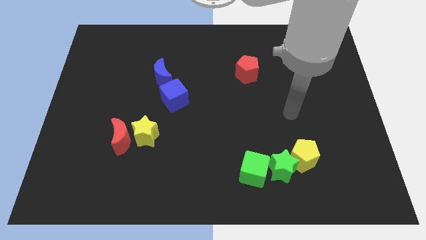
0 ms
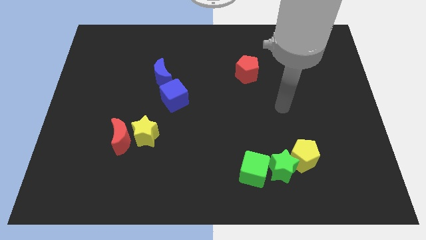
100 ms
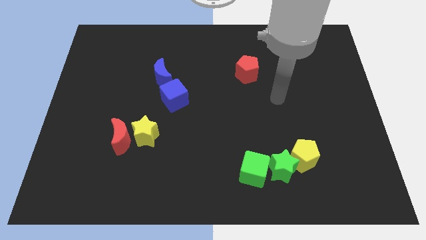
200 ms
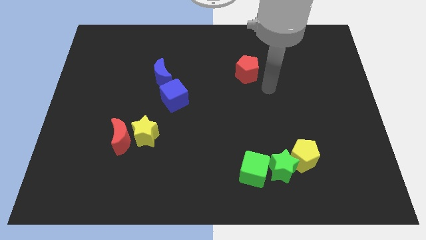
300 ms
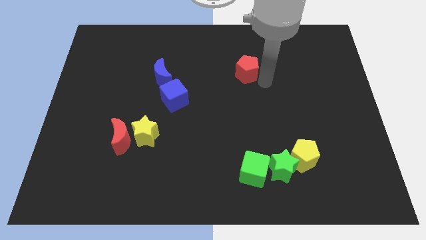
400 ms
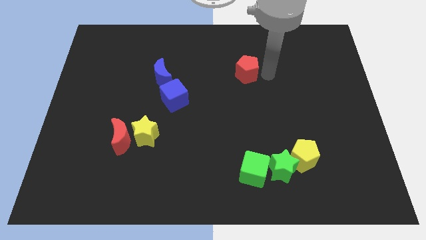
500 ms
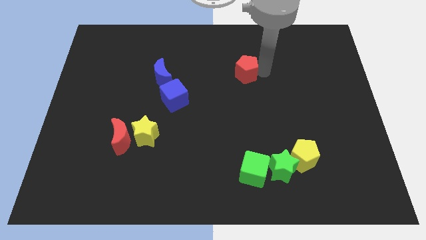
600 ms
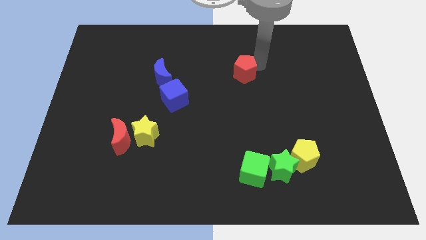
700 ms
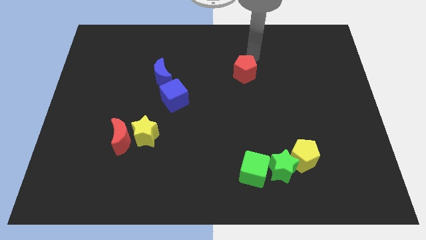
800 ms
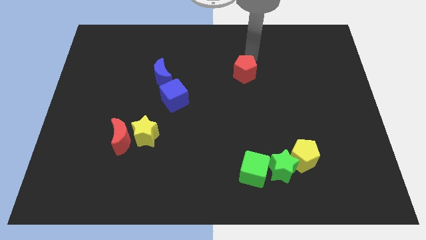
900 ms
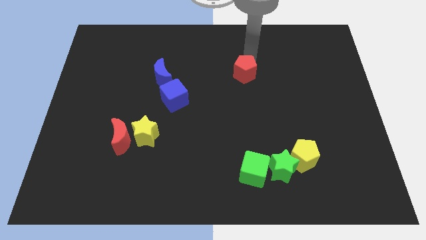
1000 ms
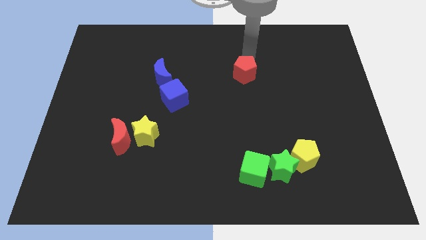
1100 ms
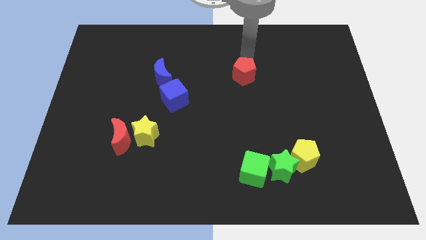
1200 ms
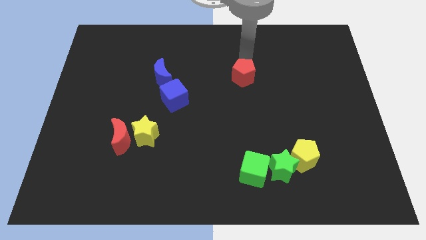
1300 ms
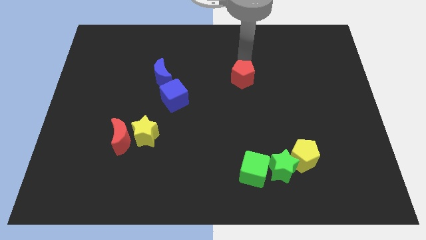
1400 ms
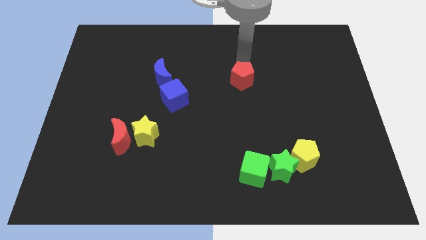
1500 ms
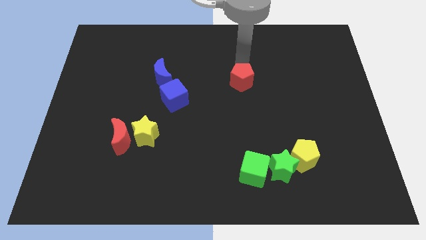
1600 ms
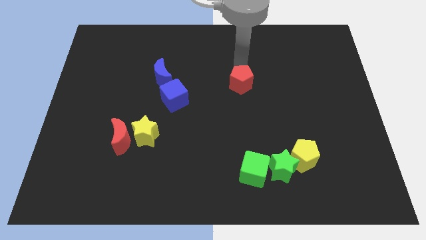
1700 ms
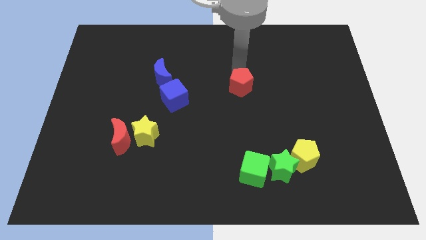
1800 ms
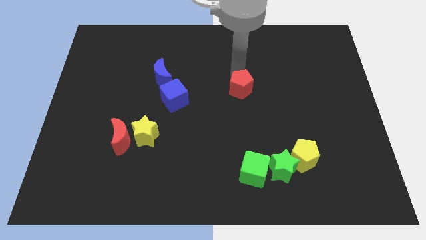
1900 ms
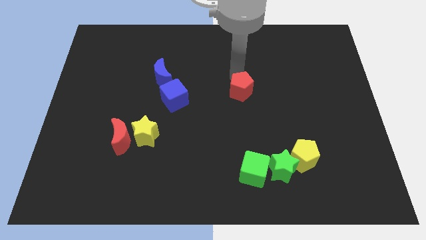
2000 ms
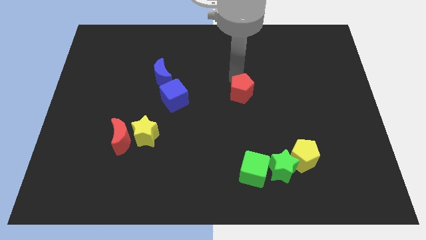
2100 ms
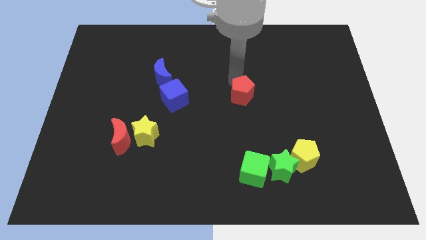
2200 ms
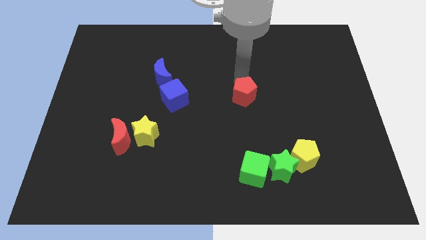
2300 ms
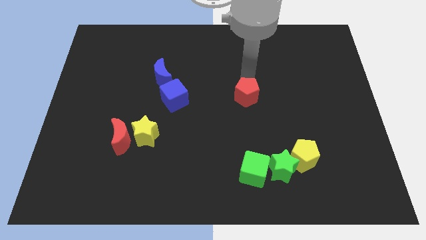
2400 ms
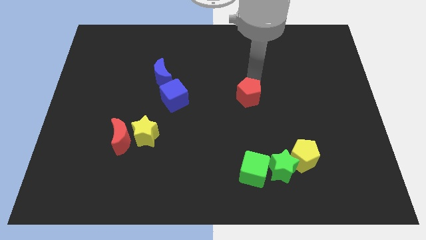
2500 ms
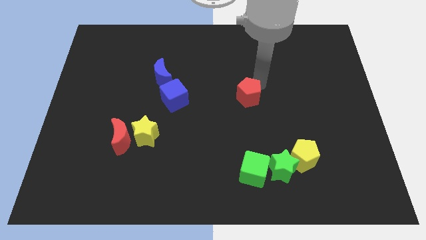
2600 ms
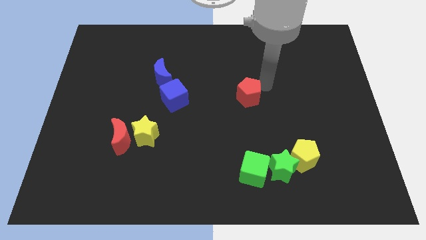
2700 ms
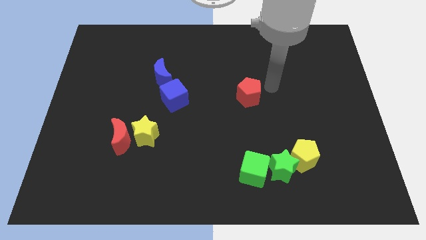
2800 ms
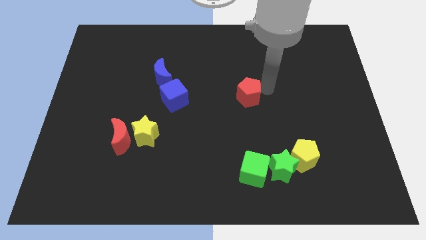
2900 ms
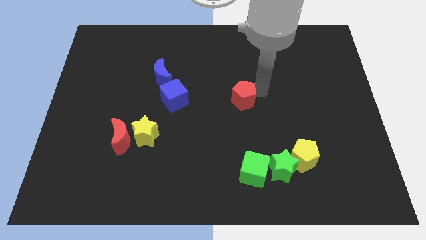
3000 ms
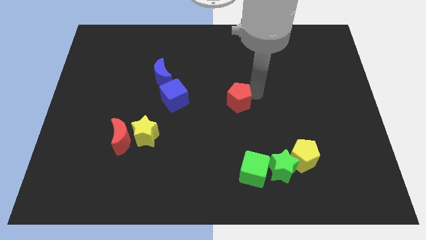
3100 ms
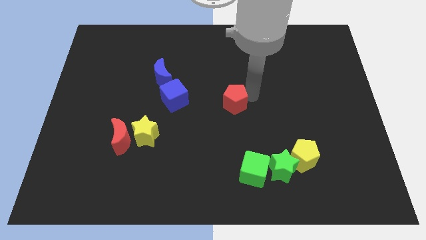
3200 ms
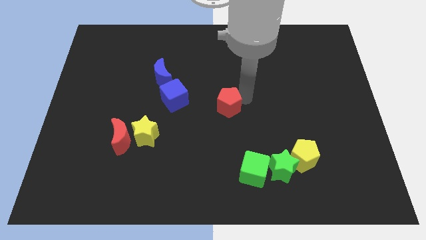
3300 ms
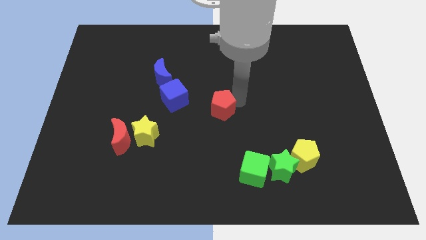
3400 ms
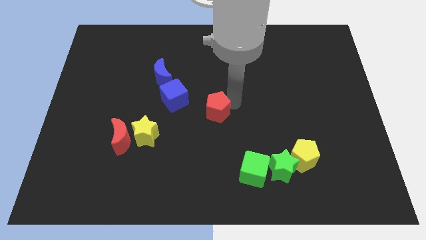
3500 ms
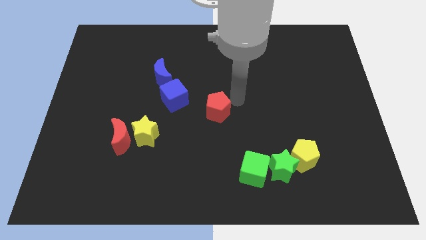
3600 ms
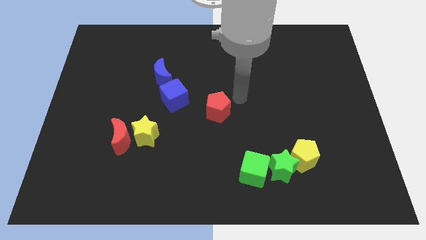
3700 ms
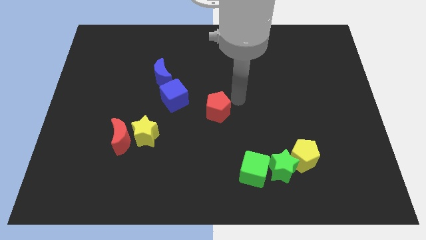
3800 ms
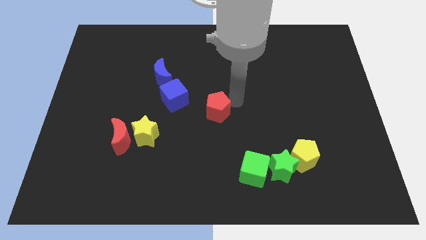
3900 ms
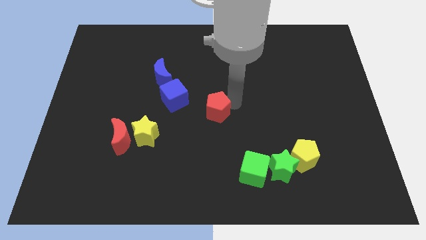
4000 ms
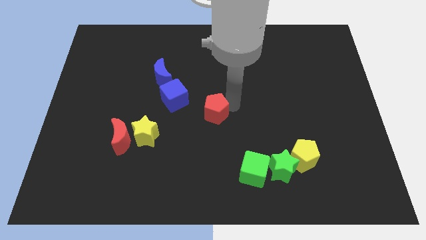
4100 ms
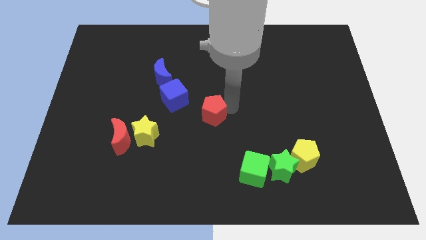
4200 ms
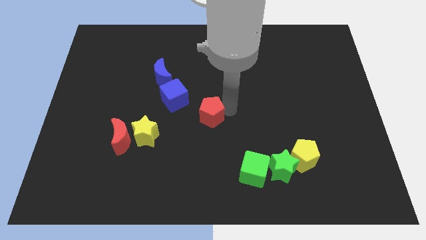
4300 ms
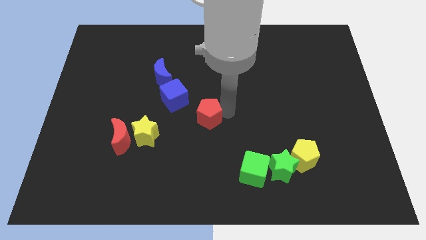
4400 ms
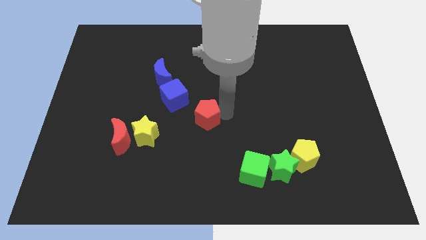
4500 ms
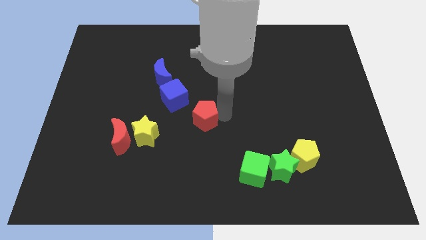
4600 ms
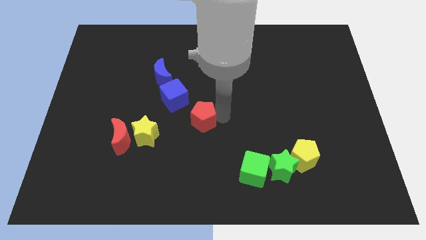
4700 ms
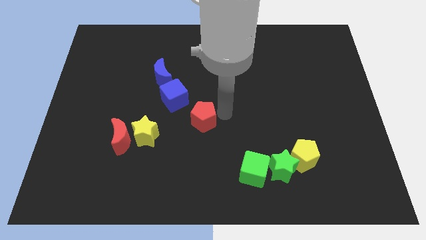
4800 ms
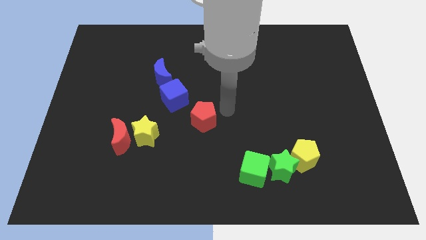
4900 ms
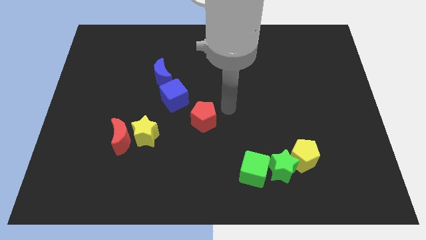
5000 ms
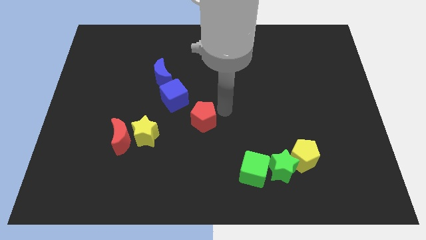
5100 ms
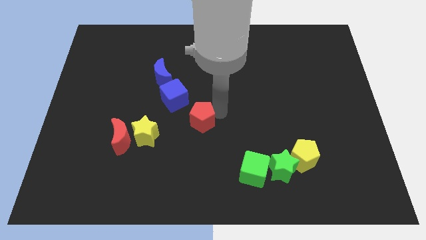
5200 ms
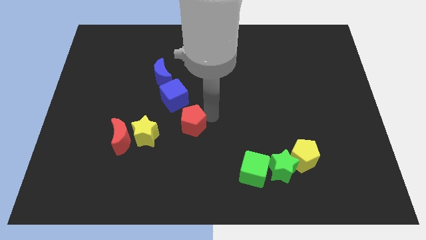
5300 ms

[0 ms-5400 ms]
slide the red pentagon diagonally downwards and left

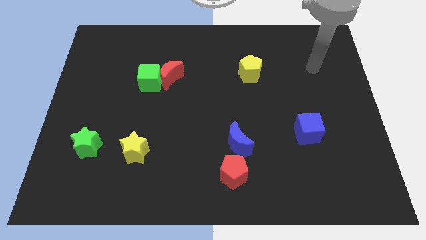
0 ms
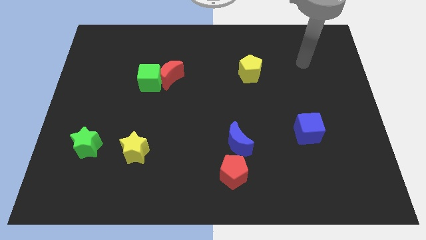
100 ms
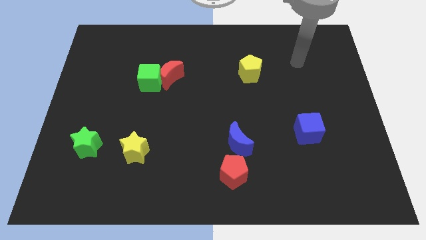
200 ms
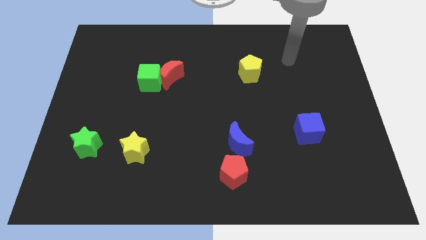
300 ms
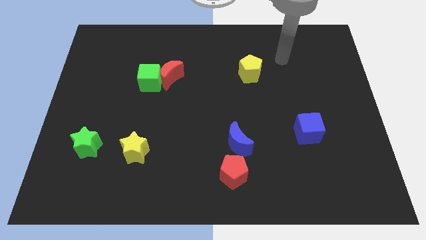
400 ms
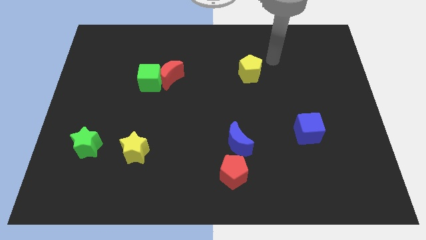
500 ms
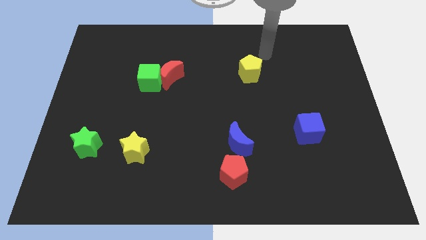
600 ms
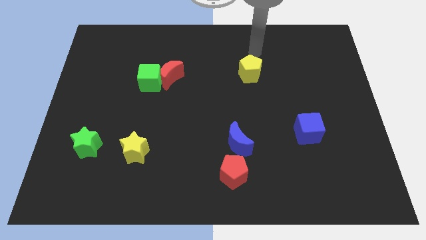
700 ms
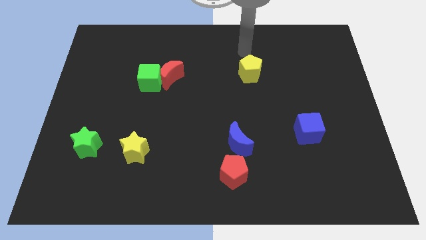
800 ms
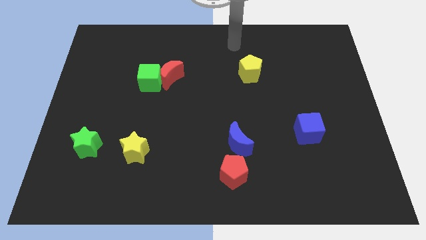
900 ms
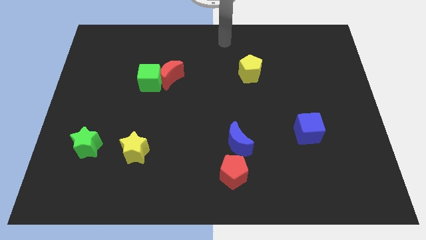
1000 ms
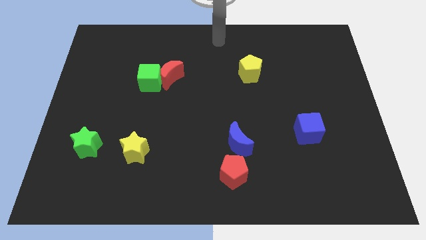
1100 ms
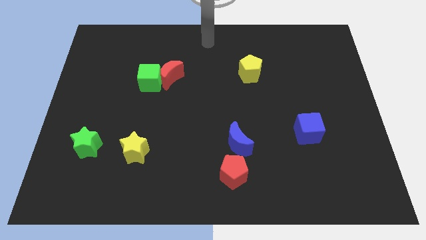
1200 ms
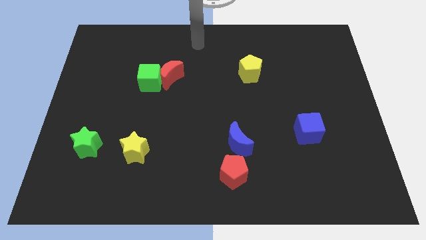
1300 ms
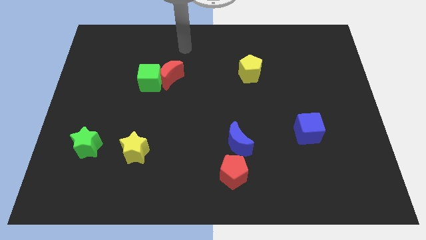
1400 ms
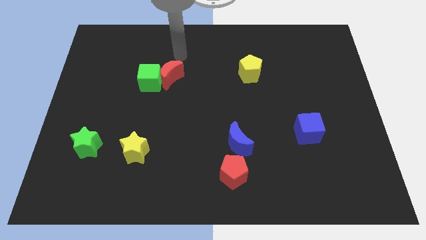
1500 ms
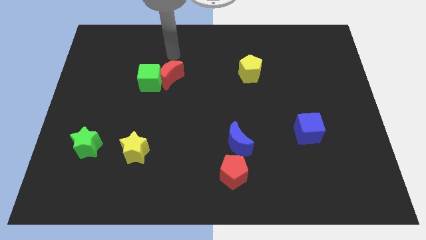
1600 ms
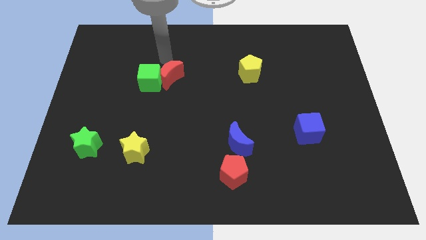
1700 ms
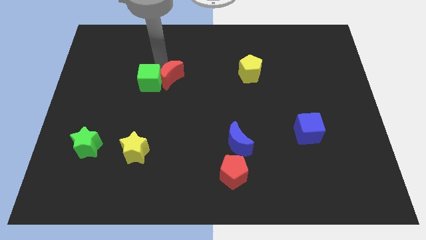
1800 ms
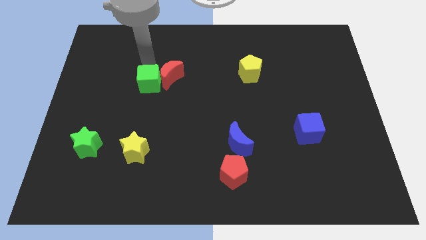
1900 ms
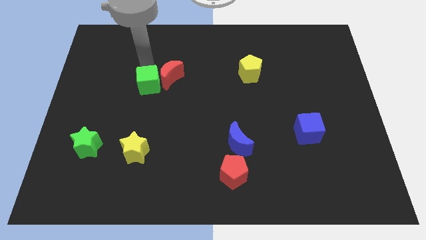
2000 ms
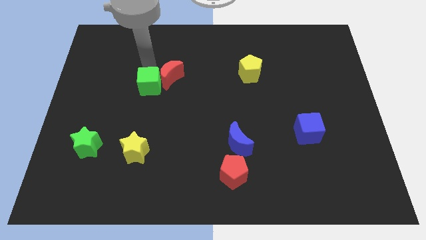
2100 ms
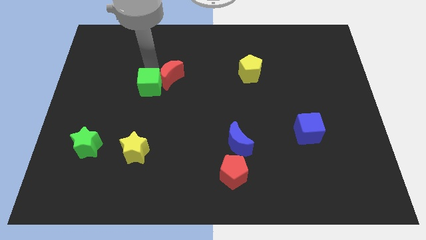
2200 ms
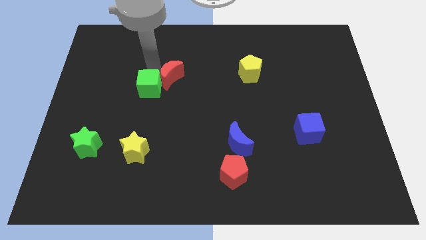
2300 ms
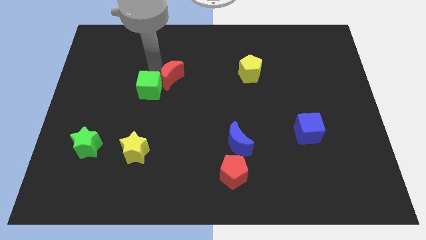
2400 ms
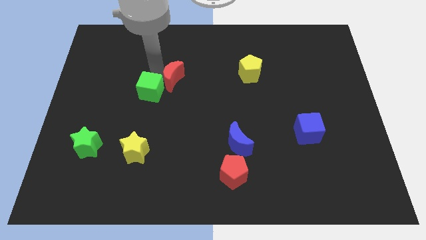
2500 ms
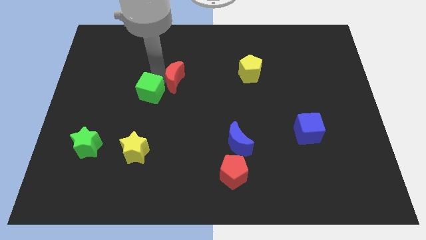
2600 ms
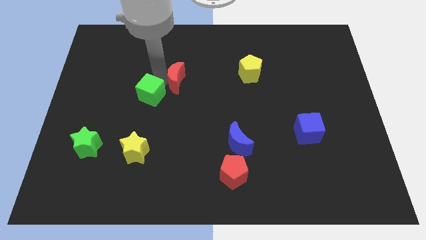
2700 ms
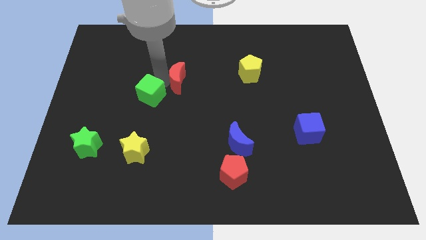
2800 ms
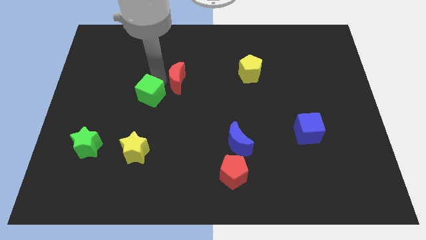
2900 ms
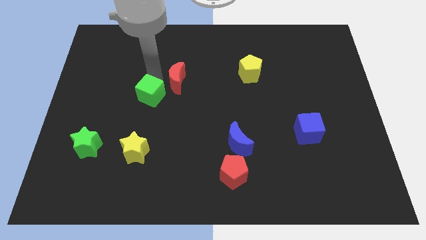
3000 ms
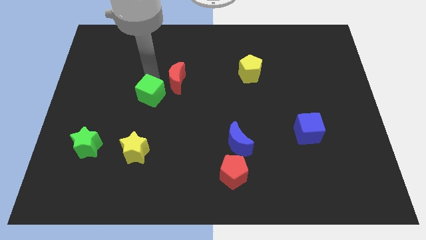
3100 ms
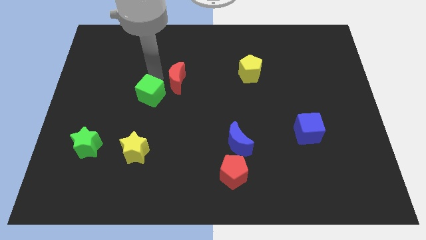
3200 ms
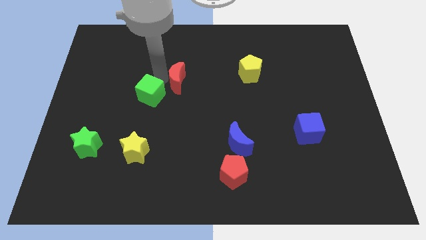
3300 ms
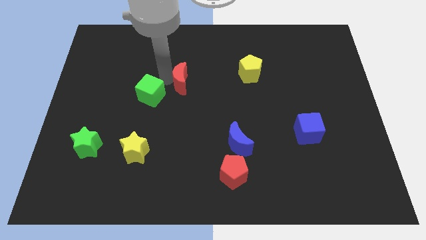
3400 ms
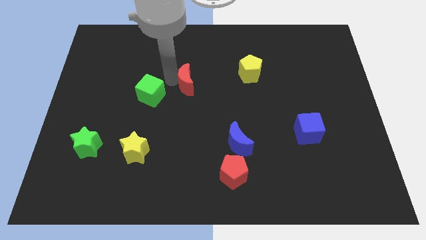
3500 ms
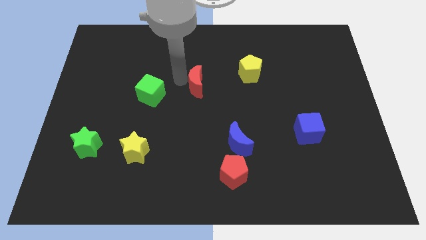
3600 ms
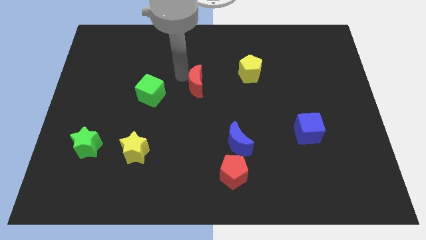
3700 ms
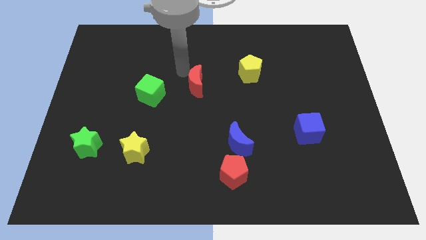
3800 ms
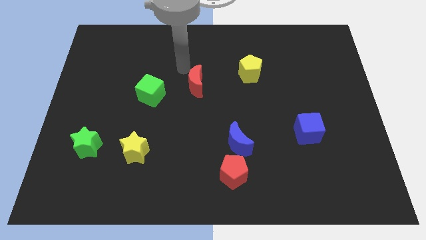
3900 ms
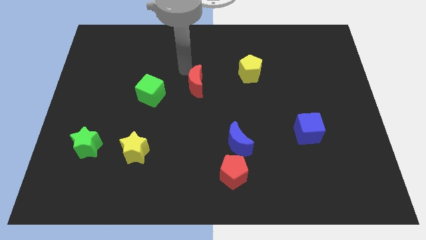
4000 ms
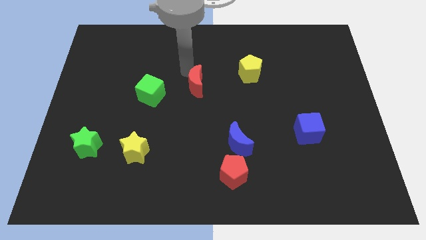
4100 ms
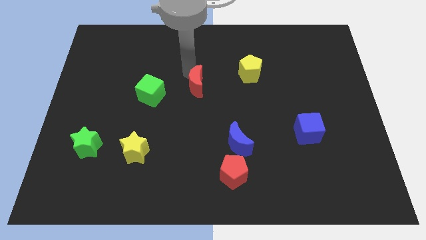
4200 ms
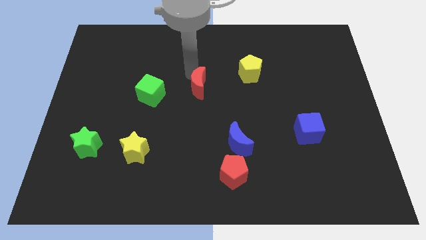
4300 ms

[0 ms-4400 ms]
slide the red moon a little downwards and right
